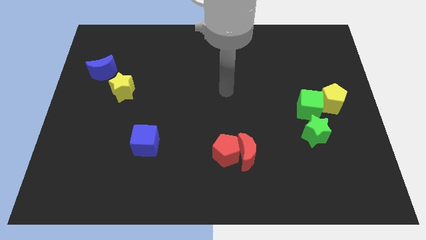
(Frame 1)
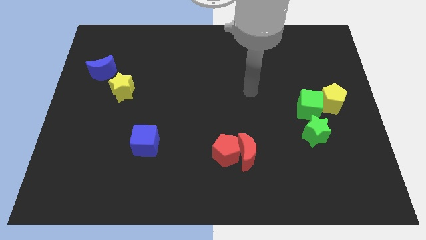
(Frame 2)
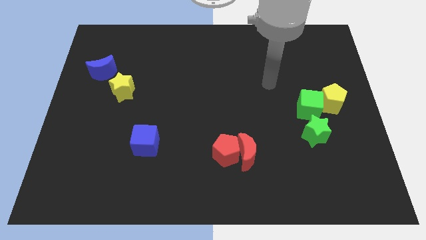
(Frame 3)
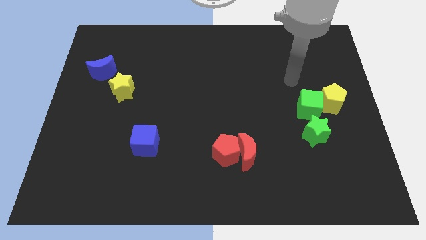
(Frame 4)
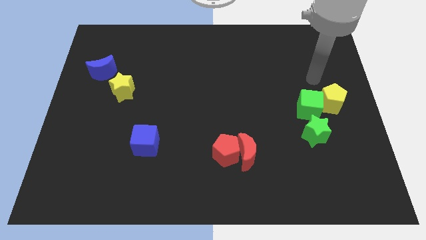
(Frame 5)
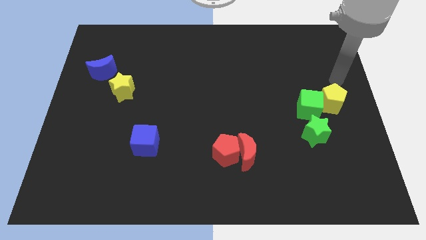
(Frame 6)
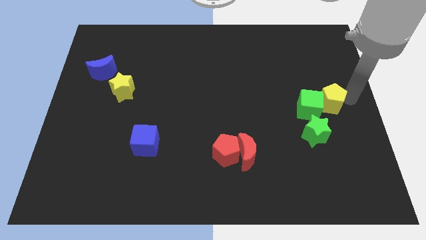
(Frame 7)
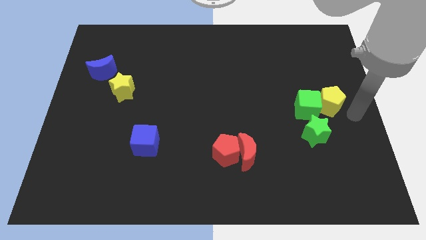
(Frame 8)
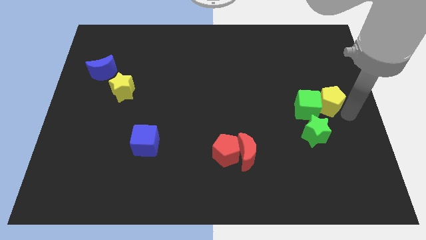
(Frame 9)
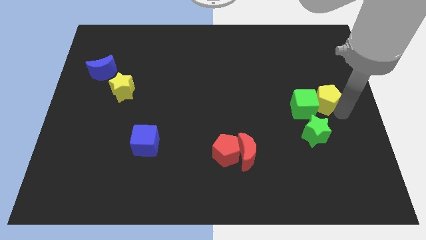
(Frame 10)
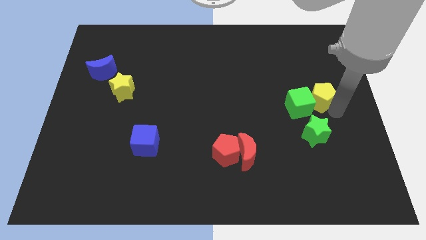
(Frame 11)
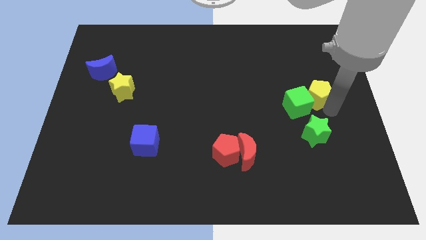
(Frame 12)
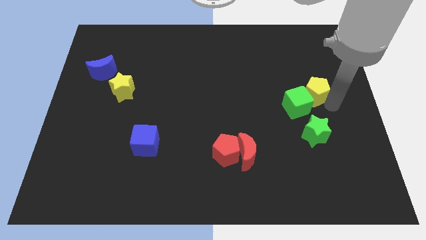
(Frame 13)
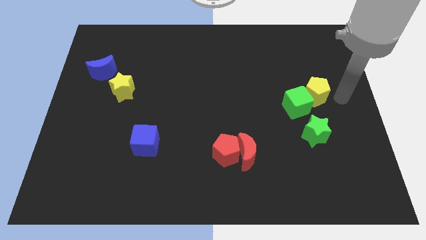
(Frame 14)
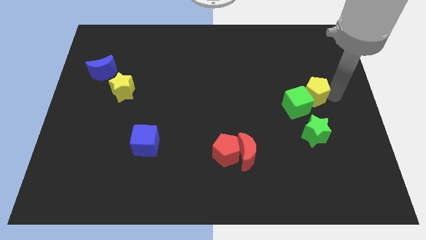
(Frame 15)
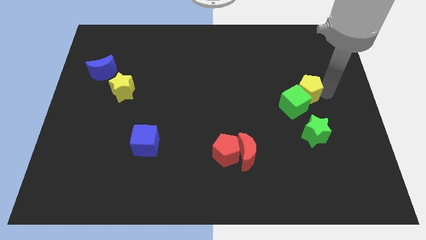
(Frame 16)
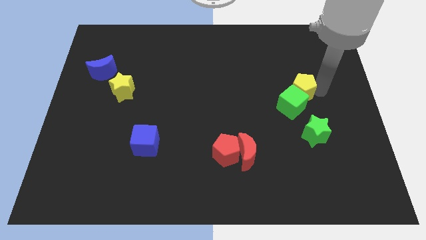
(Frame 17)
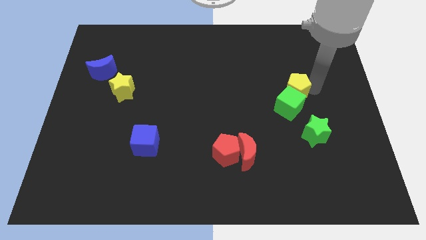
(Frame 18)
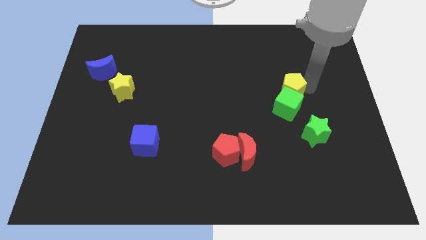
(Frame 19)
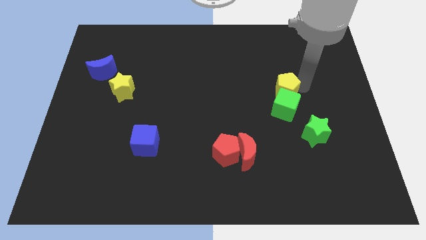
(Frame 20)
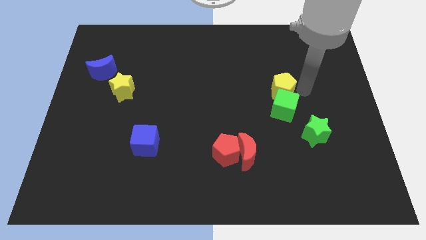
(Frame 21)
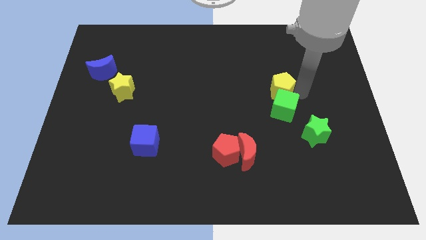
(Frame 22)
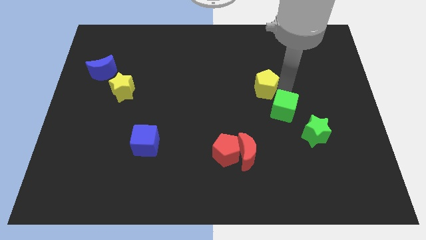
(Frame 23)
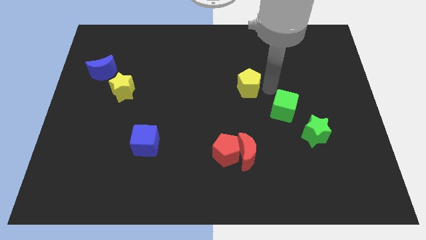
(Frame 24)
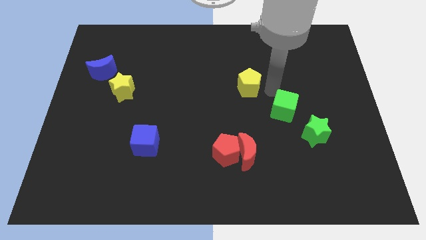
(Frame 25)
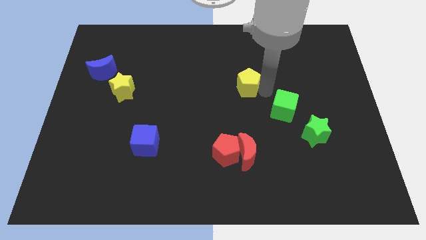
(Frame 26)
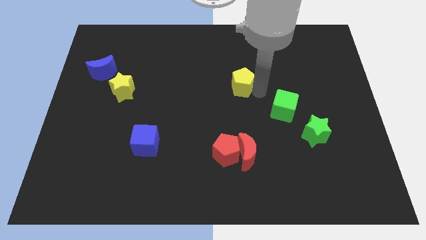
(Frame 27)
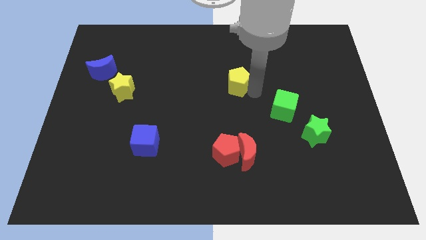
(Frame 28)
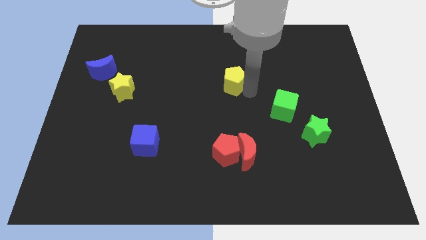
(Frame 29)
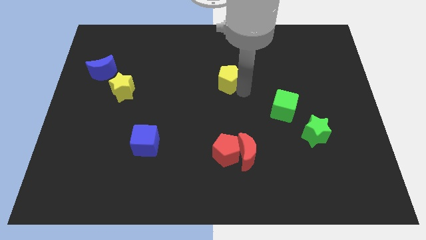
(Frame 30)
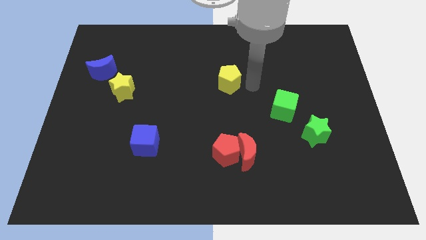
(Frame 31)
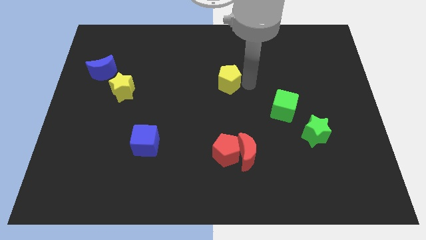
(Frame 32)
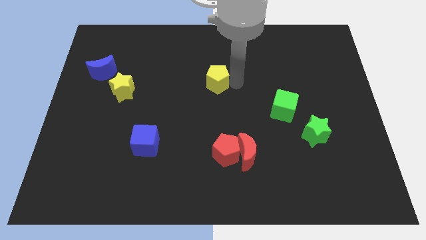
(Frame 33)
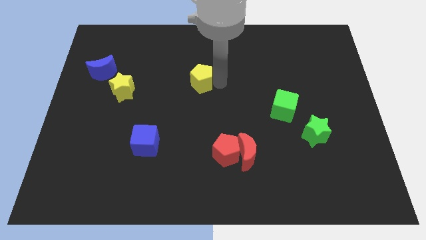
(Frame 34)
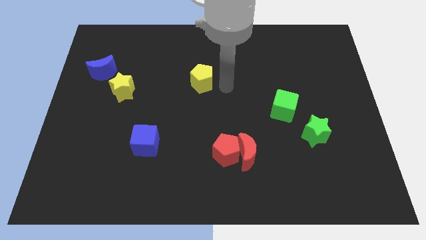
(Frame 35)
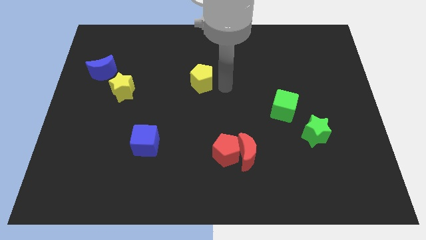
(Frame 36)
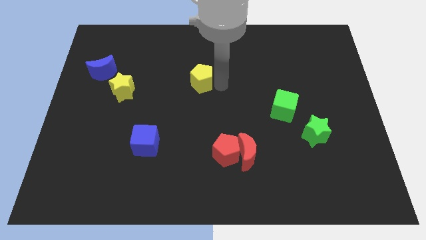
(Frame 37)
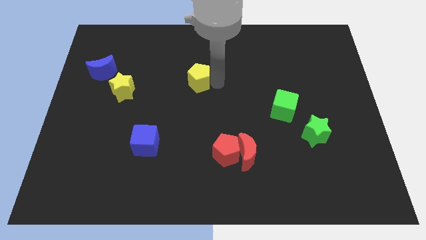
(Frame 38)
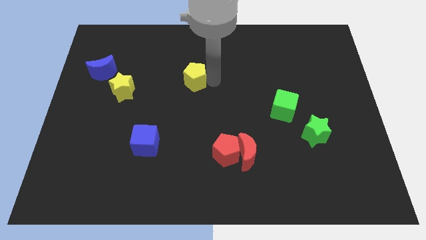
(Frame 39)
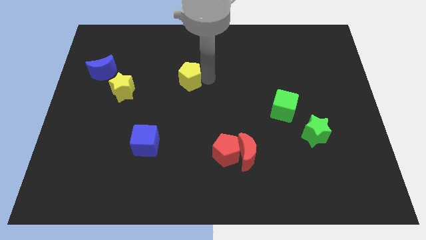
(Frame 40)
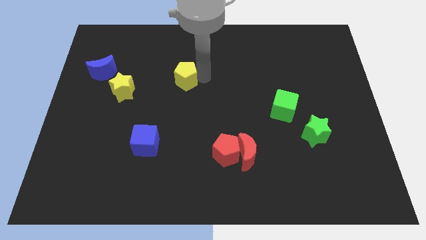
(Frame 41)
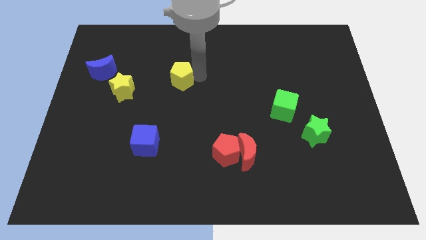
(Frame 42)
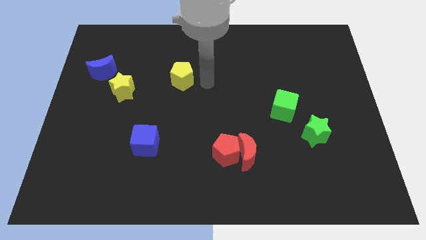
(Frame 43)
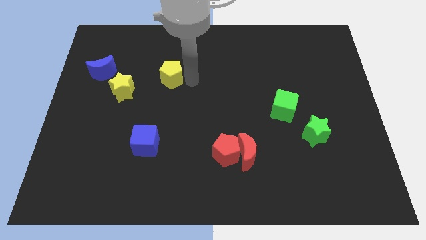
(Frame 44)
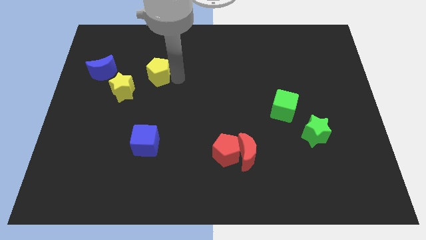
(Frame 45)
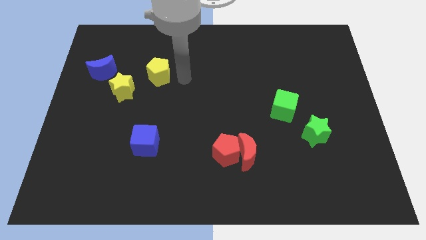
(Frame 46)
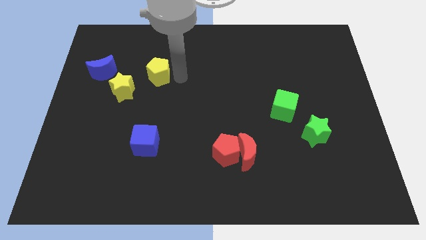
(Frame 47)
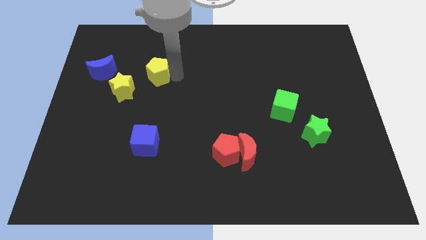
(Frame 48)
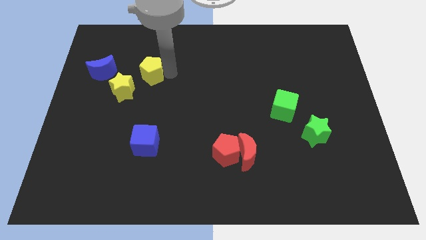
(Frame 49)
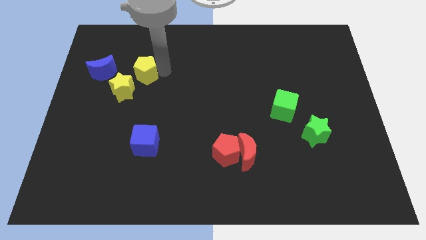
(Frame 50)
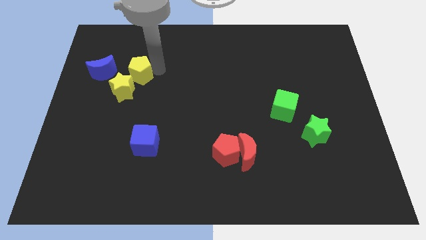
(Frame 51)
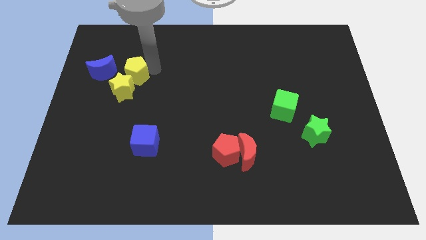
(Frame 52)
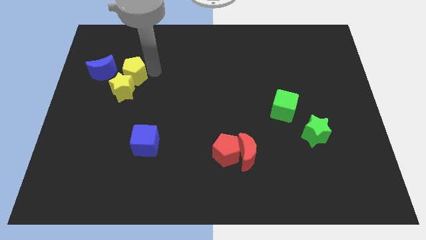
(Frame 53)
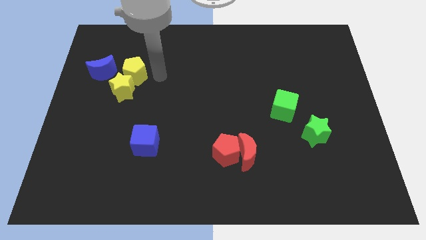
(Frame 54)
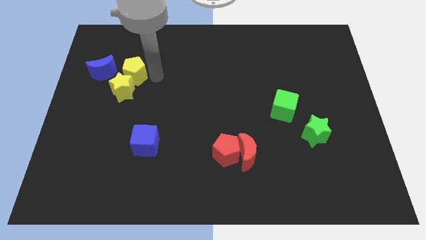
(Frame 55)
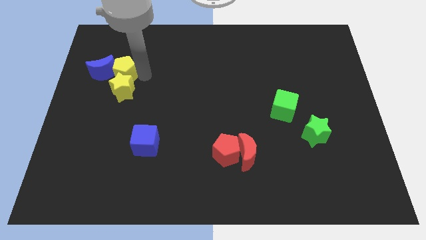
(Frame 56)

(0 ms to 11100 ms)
move the yellow pentagon towards the blue moon

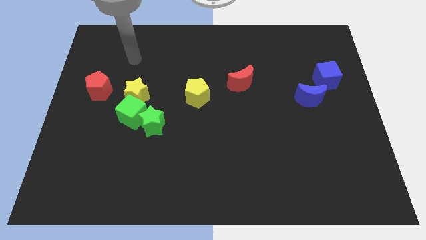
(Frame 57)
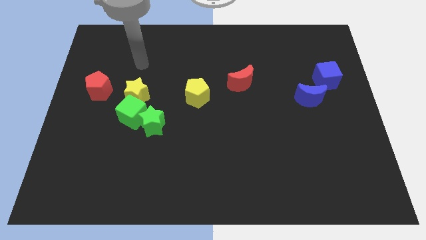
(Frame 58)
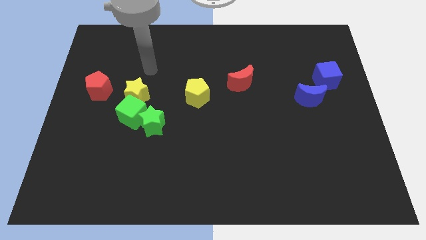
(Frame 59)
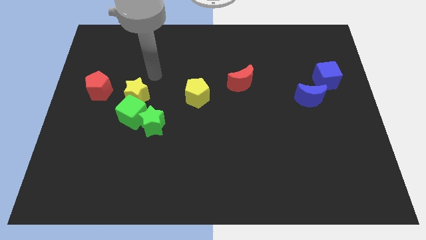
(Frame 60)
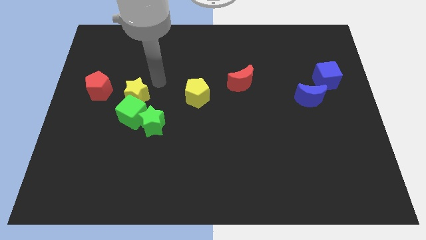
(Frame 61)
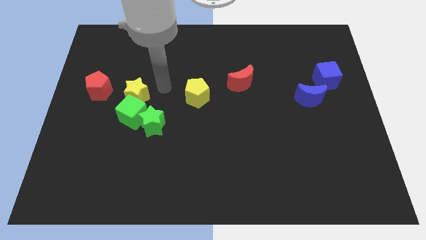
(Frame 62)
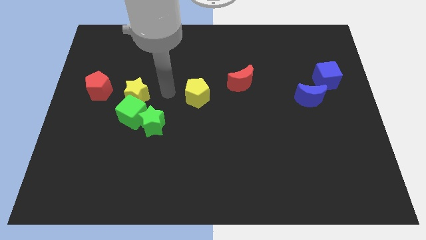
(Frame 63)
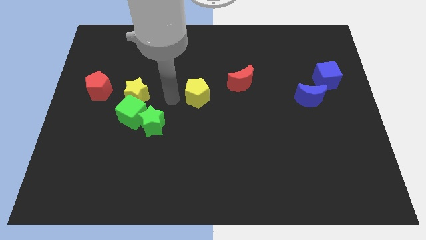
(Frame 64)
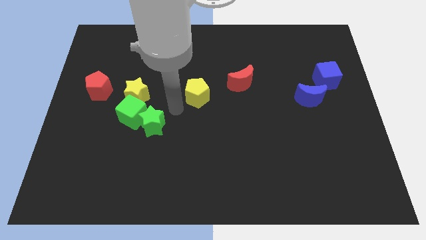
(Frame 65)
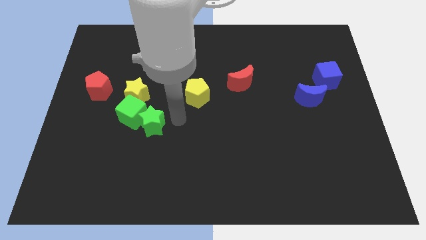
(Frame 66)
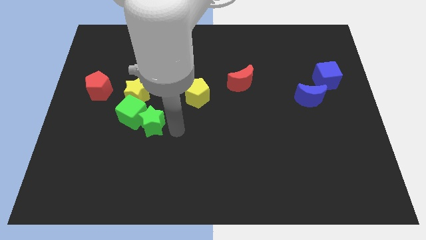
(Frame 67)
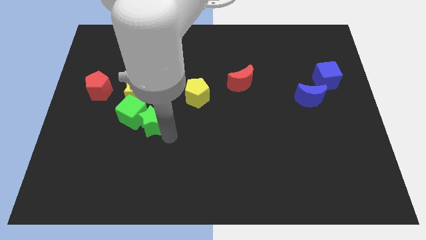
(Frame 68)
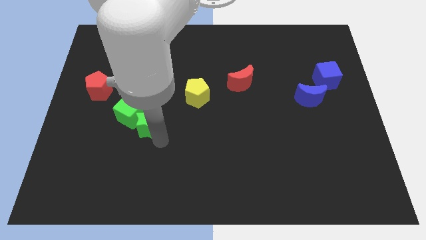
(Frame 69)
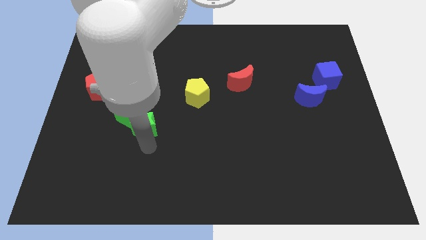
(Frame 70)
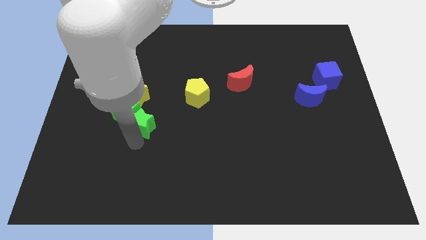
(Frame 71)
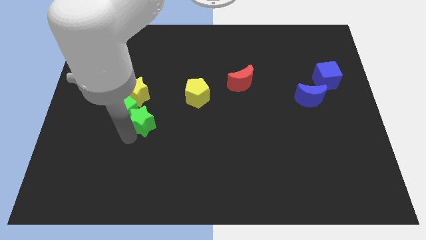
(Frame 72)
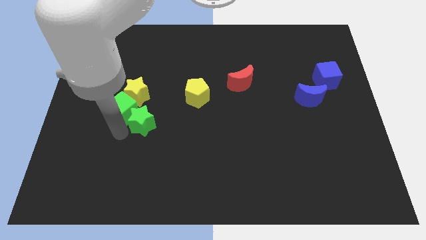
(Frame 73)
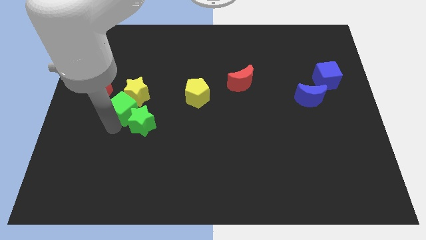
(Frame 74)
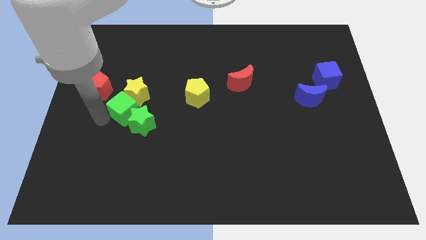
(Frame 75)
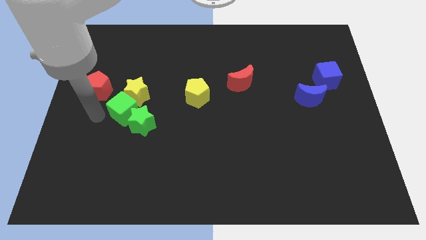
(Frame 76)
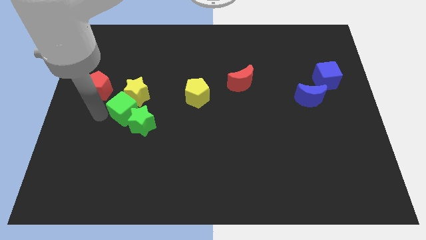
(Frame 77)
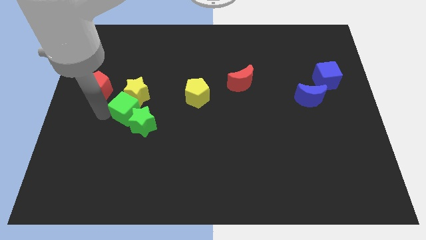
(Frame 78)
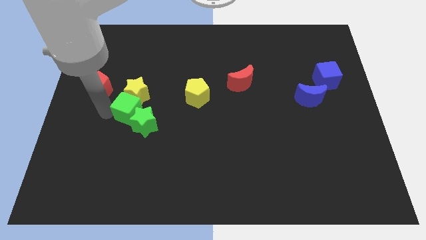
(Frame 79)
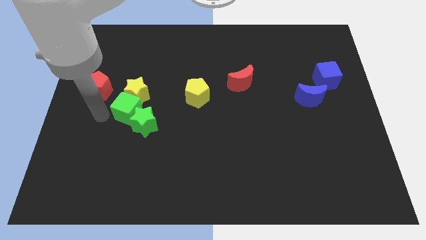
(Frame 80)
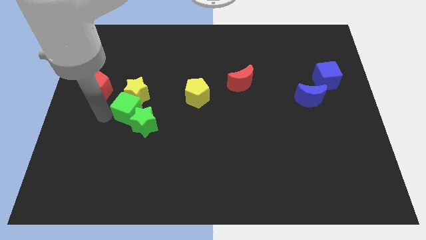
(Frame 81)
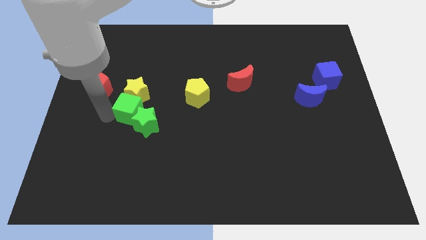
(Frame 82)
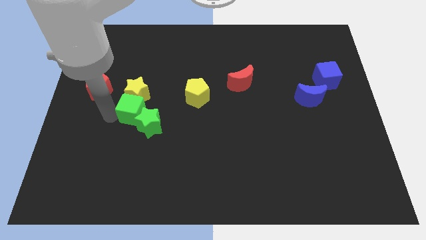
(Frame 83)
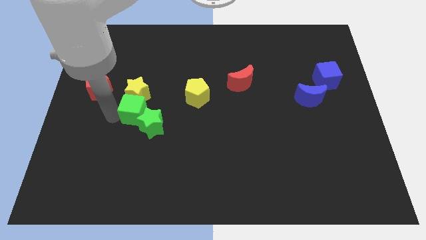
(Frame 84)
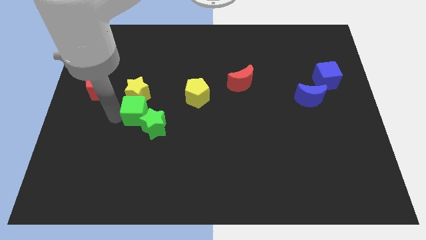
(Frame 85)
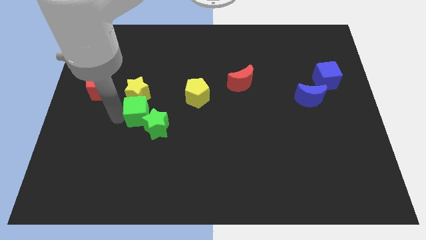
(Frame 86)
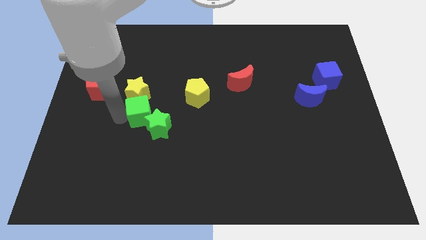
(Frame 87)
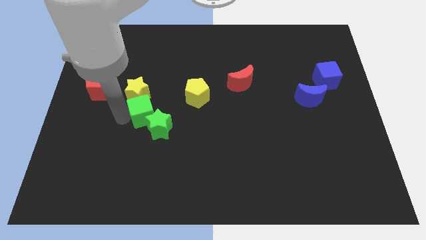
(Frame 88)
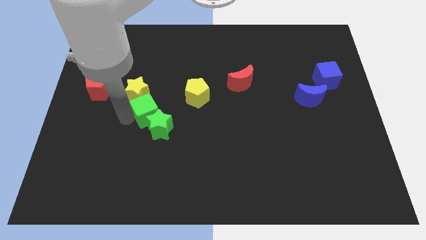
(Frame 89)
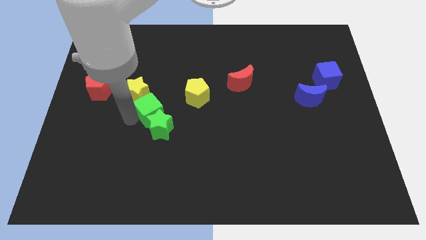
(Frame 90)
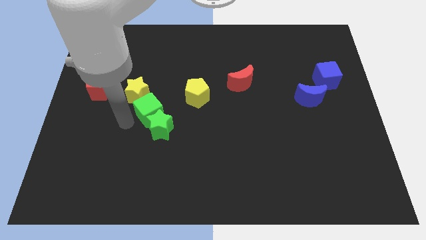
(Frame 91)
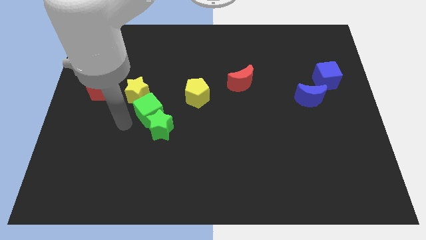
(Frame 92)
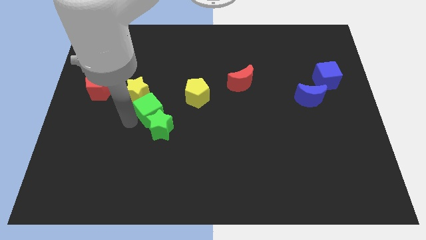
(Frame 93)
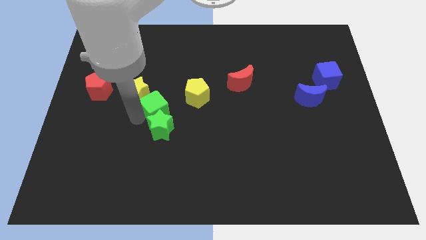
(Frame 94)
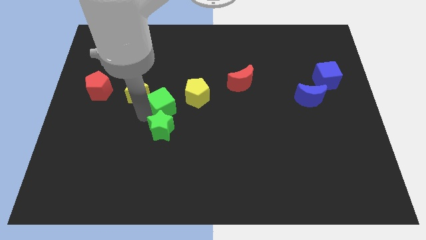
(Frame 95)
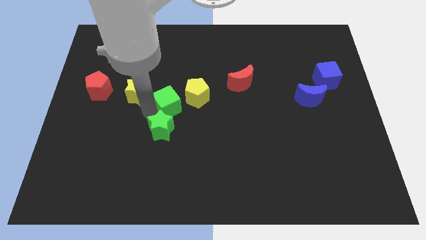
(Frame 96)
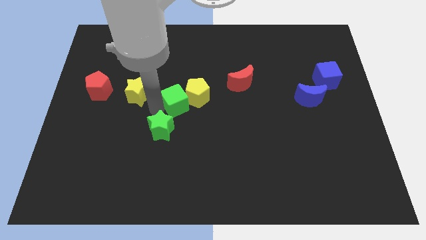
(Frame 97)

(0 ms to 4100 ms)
slide the green cube towards the yellow pentagon
